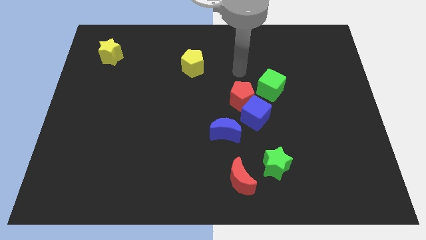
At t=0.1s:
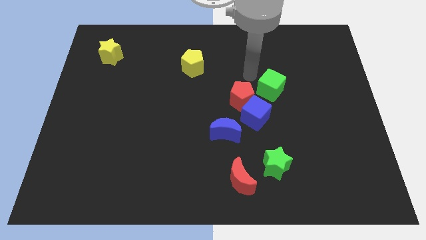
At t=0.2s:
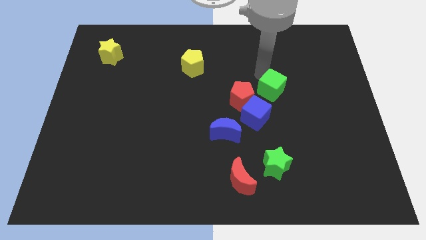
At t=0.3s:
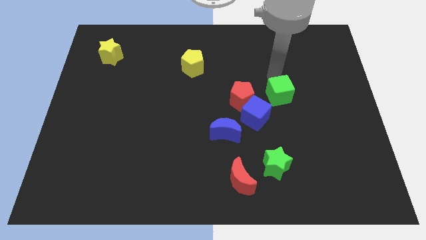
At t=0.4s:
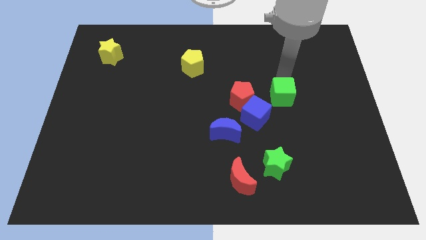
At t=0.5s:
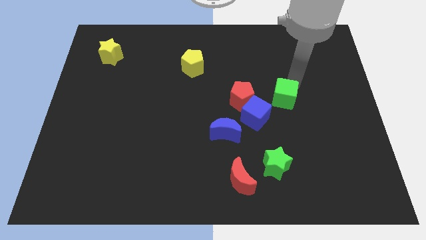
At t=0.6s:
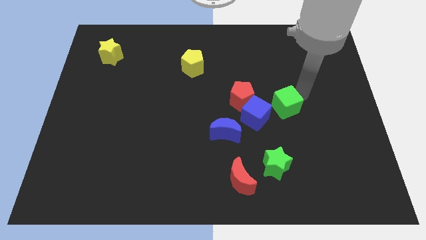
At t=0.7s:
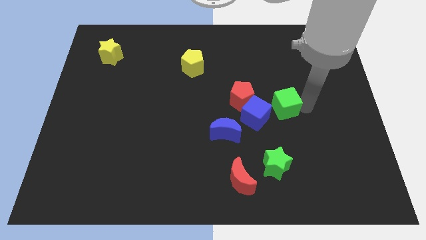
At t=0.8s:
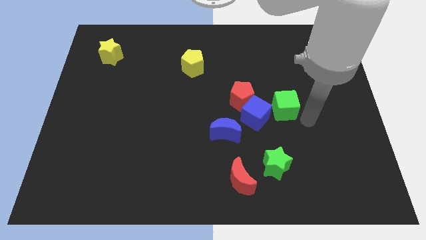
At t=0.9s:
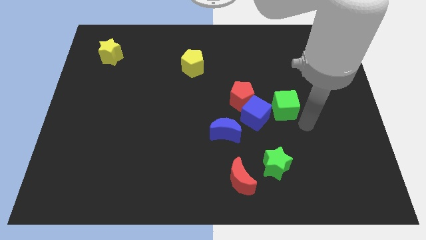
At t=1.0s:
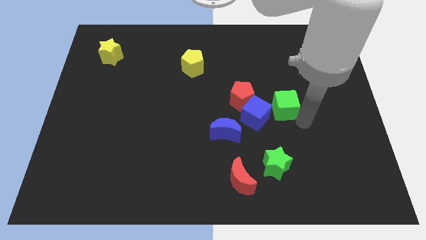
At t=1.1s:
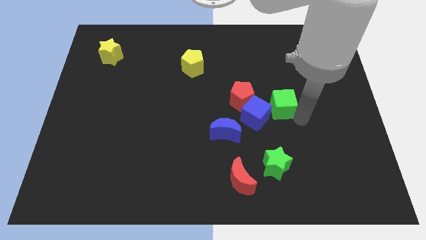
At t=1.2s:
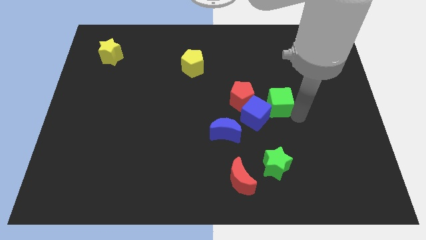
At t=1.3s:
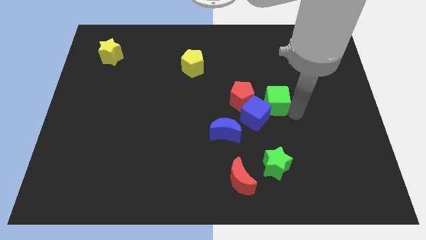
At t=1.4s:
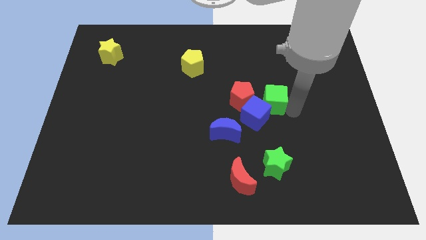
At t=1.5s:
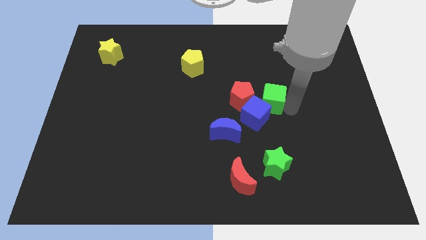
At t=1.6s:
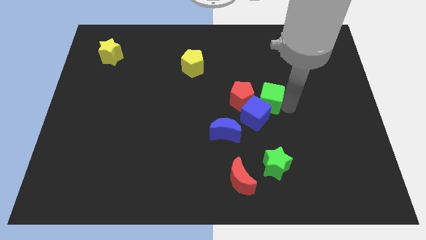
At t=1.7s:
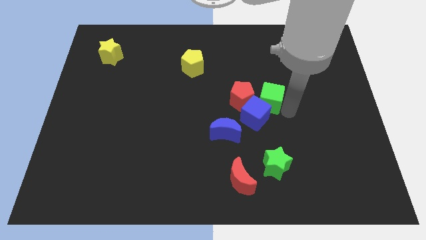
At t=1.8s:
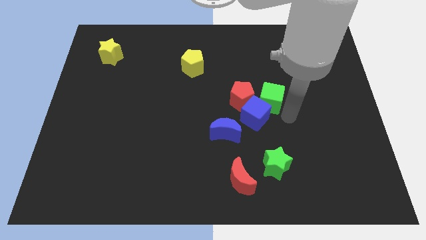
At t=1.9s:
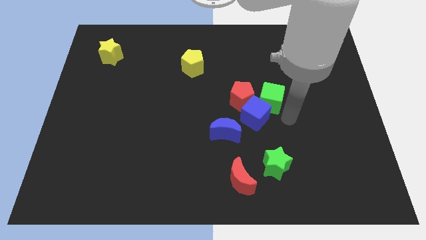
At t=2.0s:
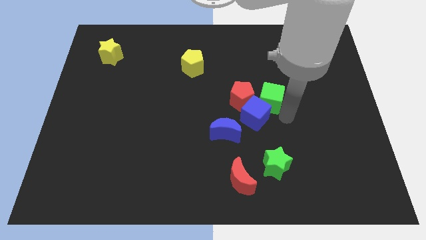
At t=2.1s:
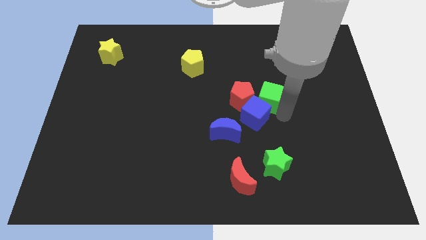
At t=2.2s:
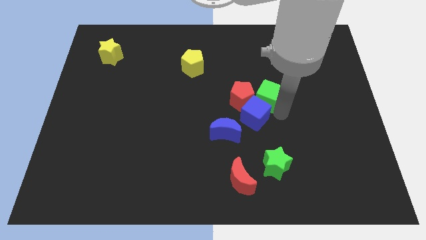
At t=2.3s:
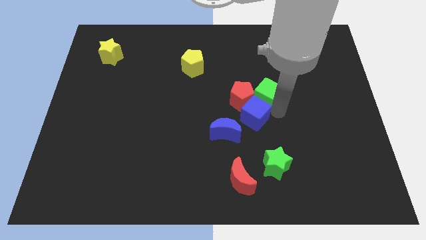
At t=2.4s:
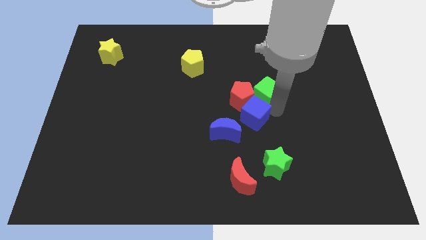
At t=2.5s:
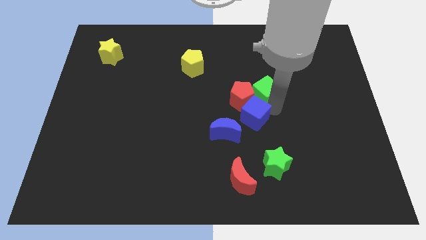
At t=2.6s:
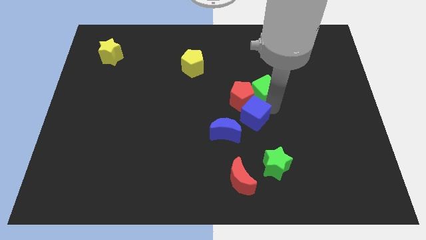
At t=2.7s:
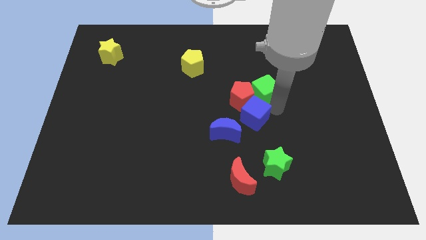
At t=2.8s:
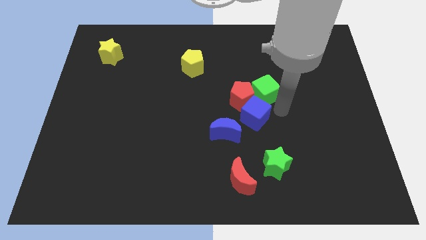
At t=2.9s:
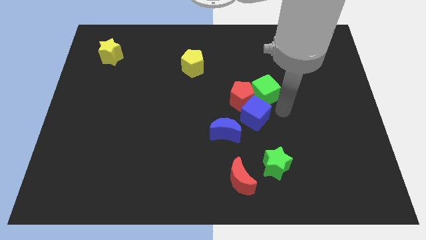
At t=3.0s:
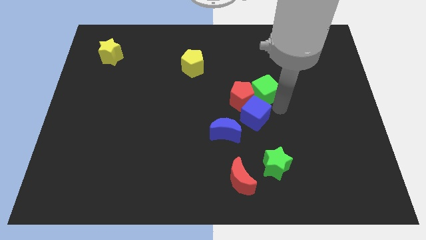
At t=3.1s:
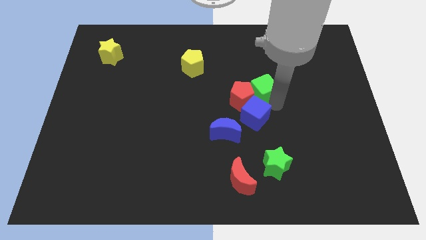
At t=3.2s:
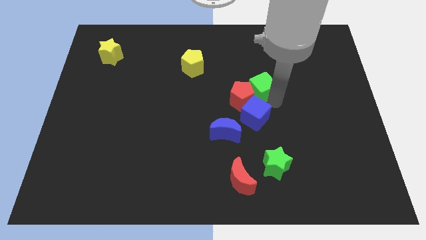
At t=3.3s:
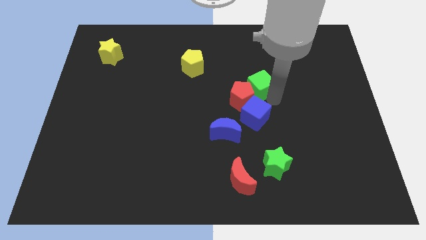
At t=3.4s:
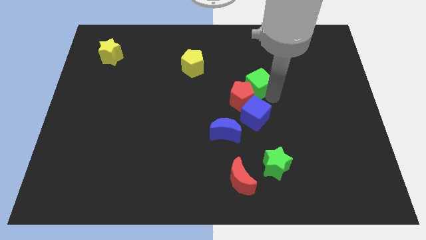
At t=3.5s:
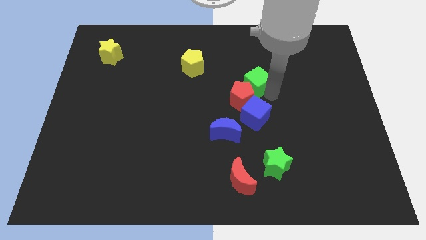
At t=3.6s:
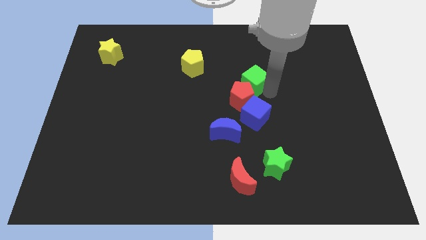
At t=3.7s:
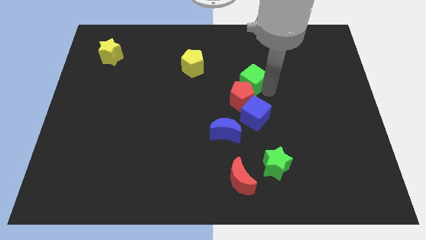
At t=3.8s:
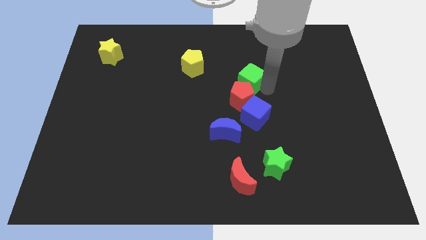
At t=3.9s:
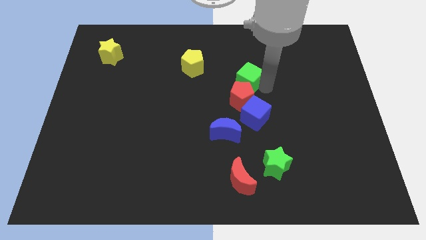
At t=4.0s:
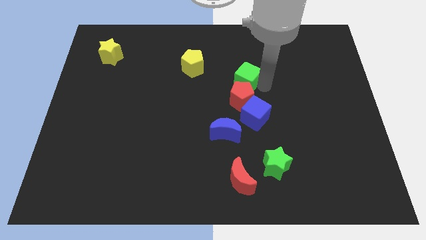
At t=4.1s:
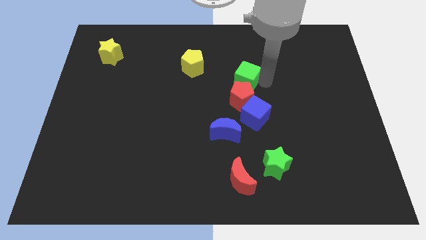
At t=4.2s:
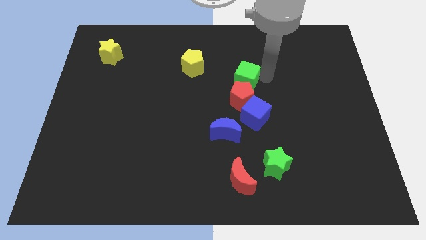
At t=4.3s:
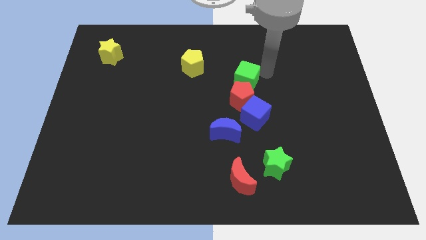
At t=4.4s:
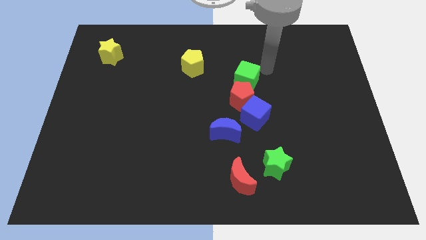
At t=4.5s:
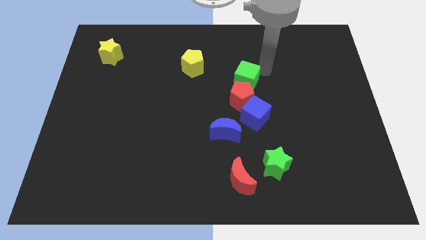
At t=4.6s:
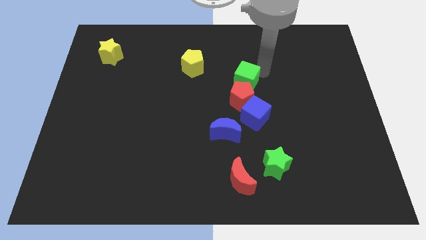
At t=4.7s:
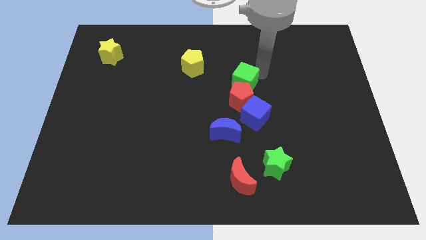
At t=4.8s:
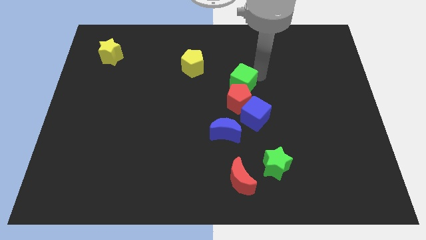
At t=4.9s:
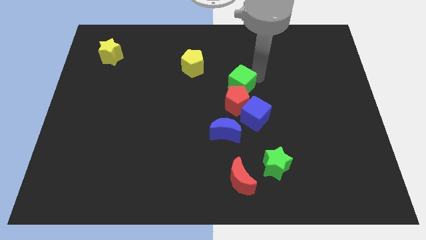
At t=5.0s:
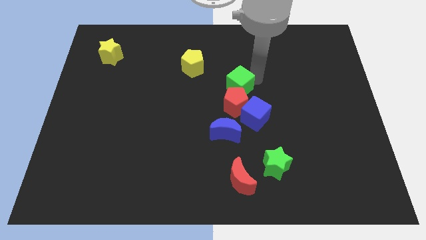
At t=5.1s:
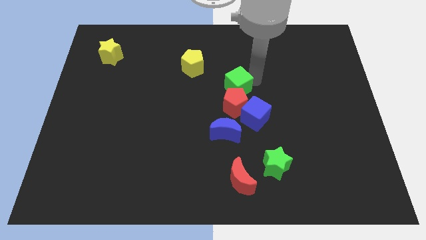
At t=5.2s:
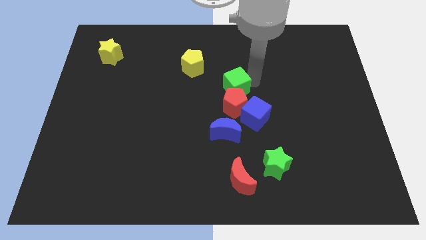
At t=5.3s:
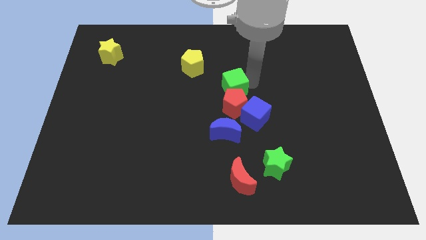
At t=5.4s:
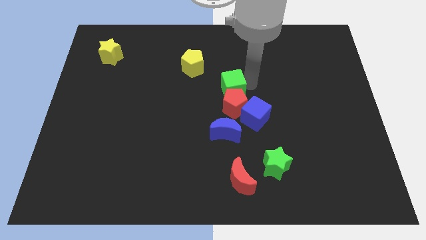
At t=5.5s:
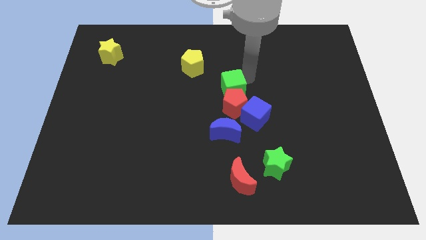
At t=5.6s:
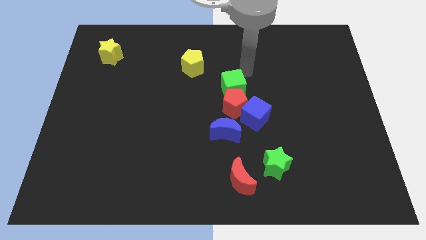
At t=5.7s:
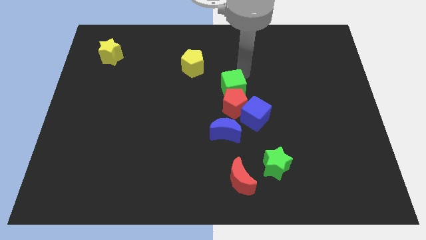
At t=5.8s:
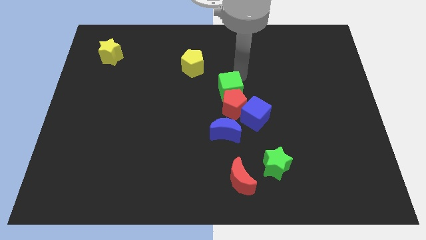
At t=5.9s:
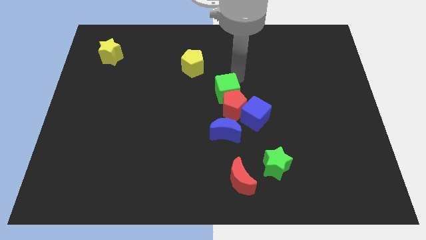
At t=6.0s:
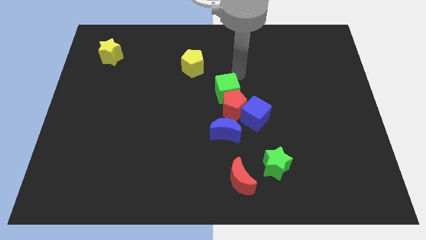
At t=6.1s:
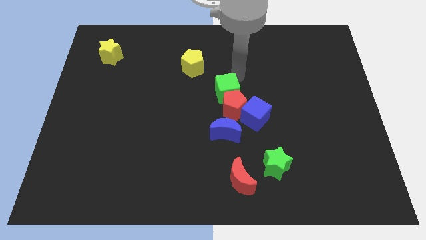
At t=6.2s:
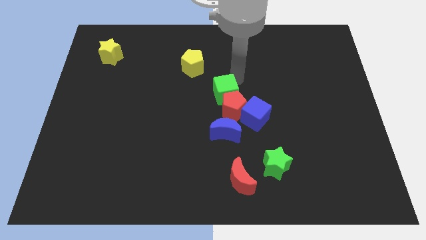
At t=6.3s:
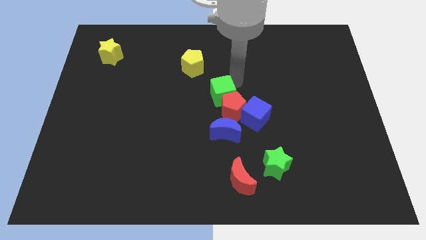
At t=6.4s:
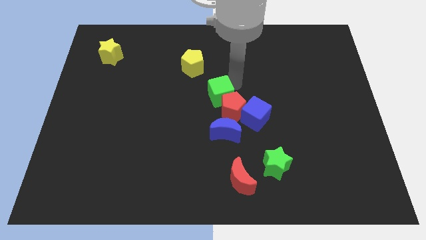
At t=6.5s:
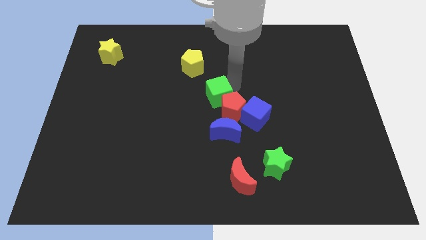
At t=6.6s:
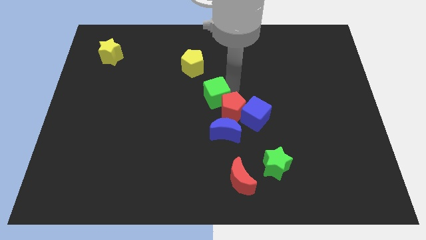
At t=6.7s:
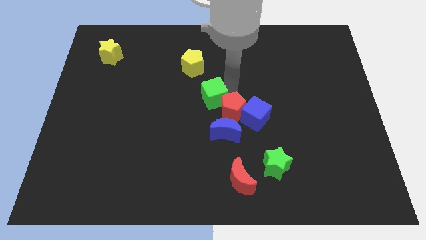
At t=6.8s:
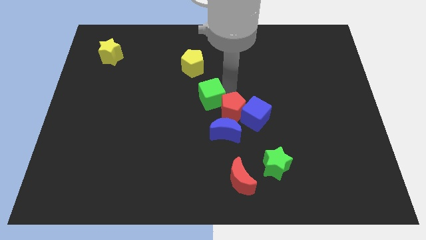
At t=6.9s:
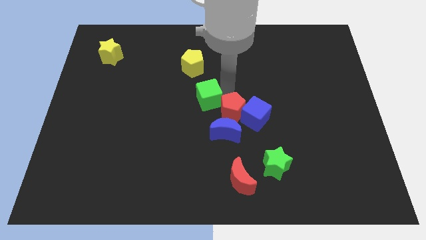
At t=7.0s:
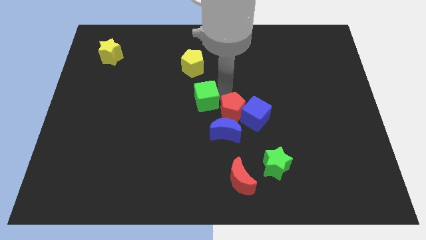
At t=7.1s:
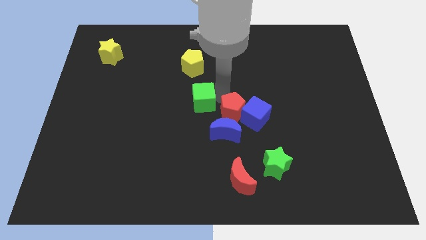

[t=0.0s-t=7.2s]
move the green cube left of the blue cube

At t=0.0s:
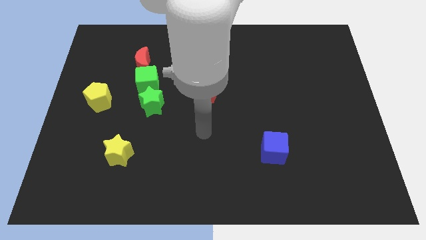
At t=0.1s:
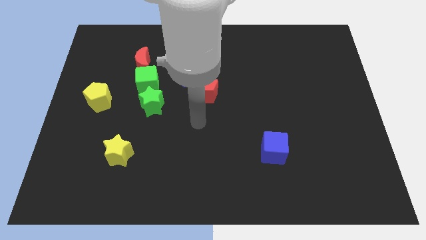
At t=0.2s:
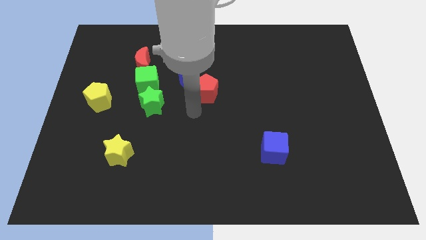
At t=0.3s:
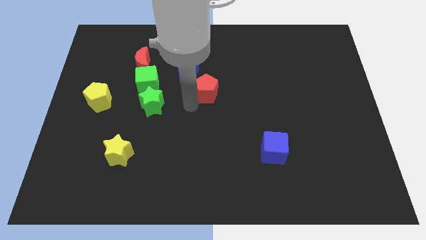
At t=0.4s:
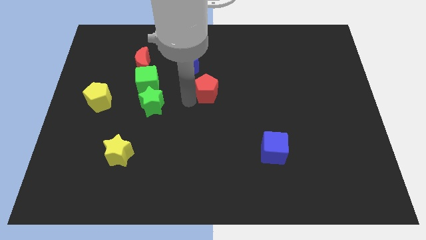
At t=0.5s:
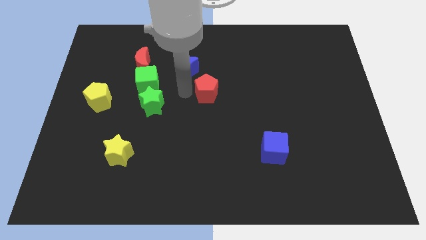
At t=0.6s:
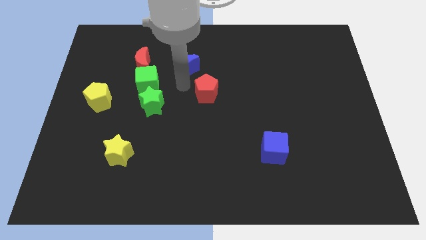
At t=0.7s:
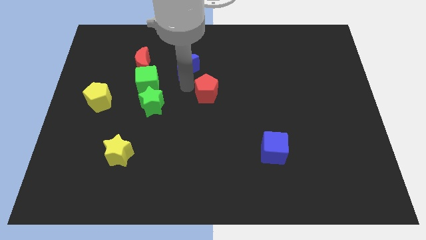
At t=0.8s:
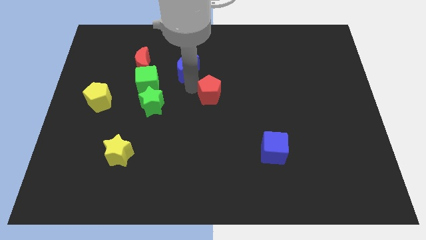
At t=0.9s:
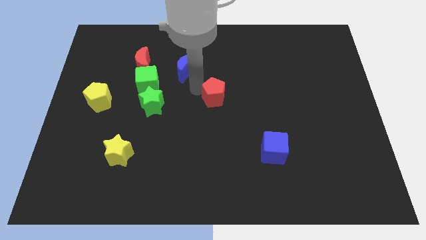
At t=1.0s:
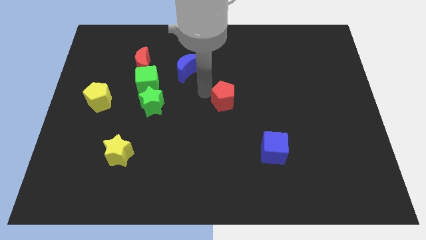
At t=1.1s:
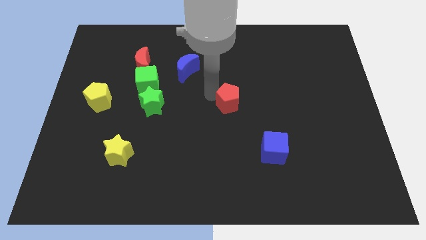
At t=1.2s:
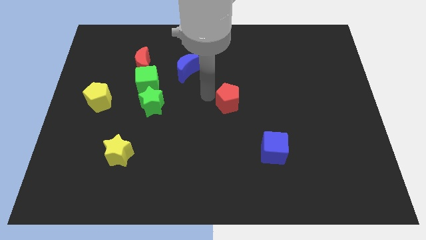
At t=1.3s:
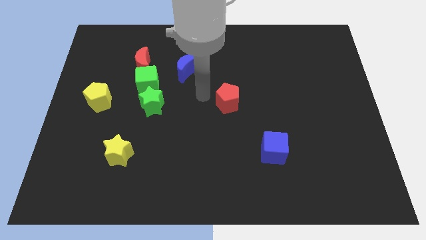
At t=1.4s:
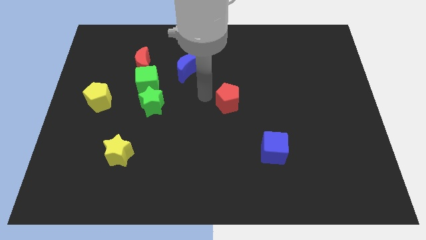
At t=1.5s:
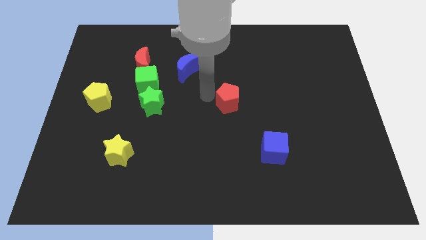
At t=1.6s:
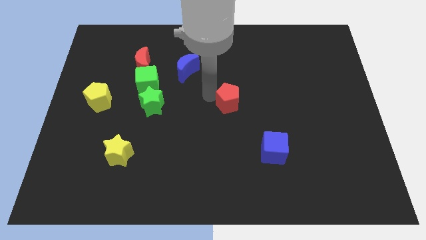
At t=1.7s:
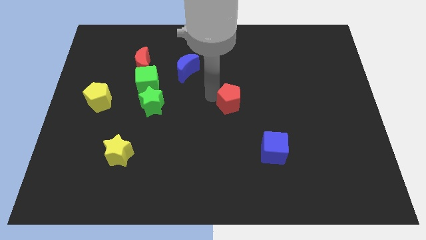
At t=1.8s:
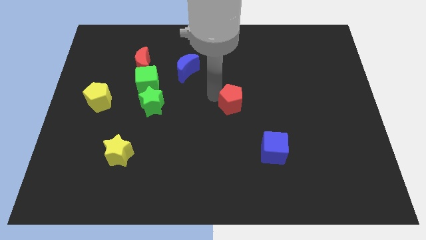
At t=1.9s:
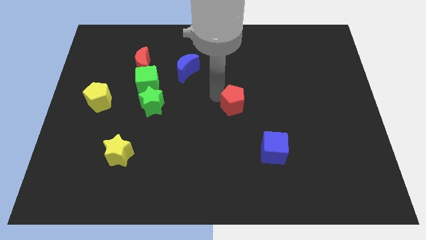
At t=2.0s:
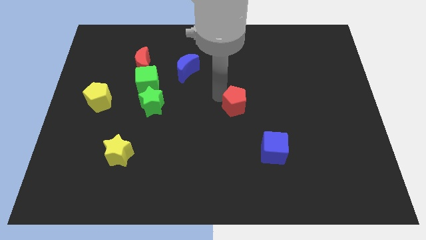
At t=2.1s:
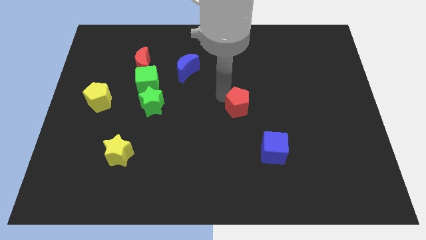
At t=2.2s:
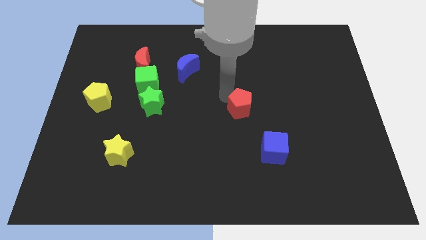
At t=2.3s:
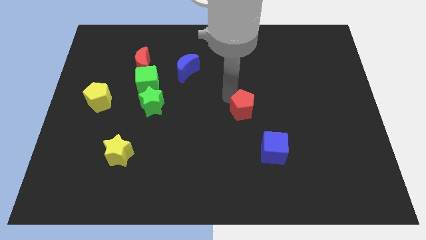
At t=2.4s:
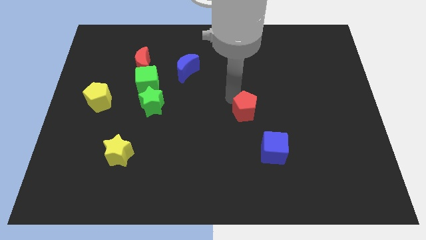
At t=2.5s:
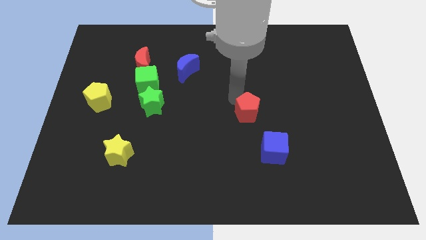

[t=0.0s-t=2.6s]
put the red pentagon to the top side of the blue cube
